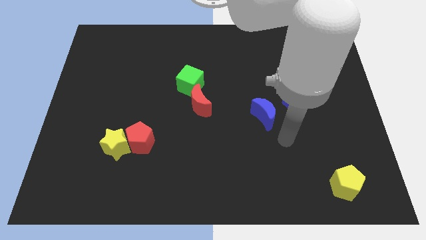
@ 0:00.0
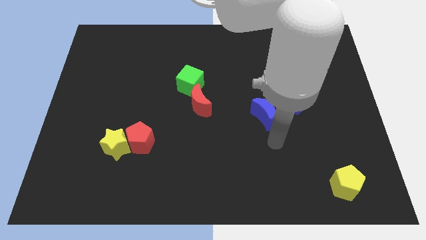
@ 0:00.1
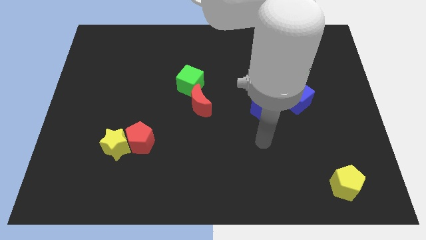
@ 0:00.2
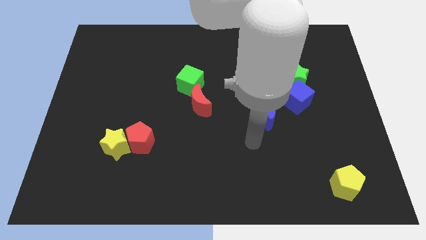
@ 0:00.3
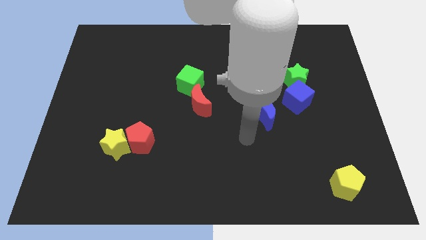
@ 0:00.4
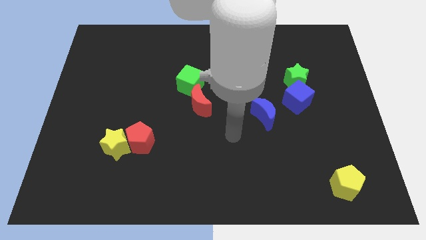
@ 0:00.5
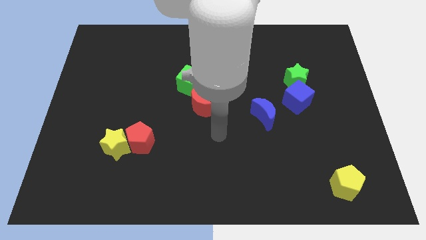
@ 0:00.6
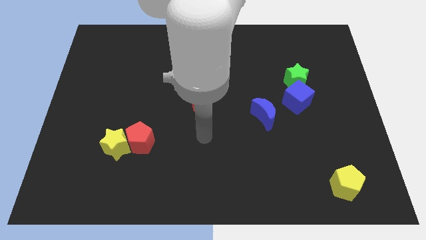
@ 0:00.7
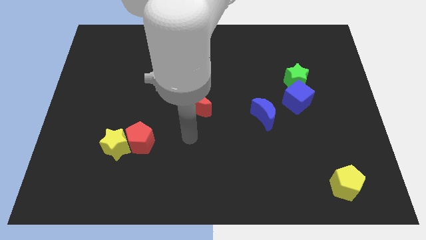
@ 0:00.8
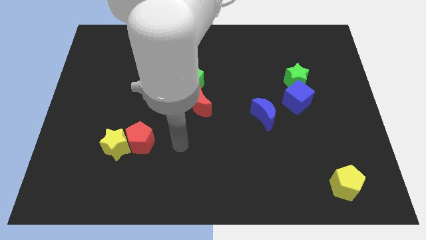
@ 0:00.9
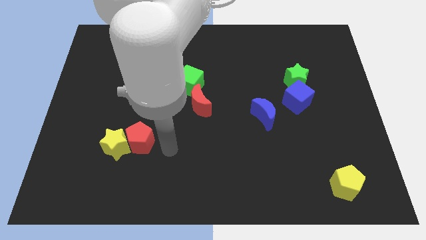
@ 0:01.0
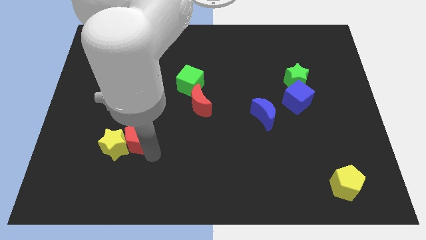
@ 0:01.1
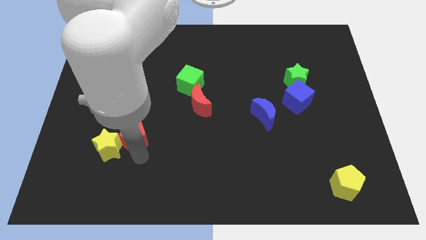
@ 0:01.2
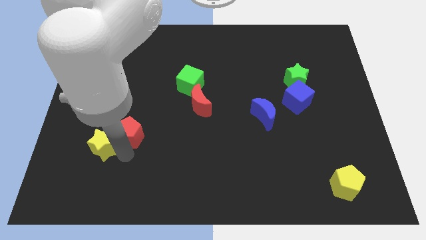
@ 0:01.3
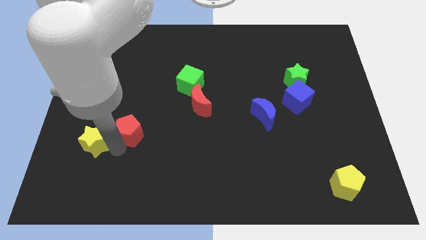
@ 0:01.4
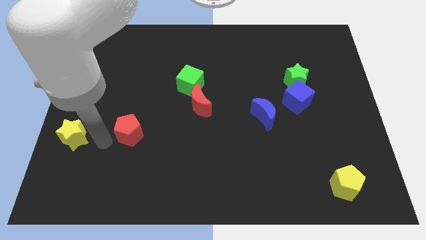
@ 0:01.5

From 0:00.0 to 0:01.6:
move the red pentagon away from the yellow star

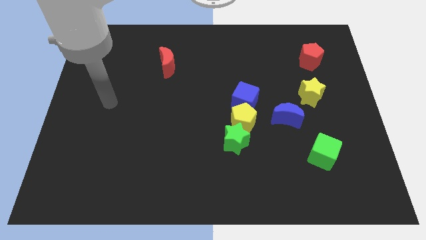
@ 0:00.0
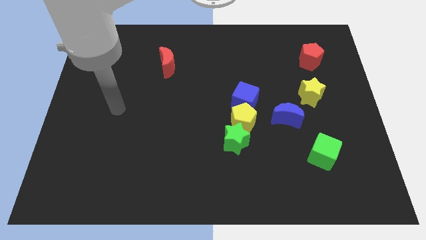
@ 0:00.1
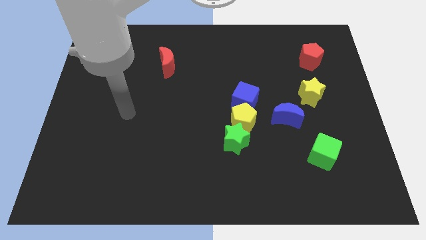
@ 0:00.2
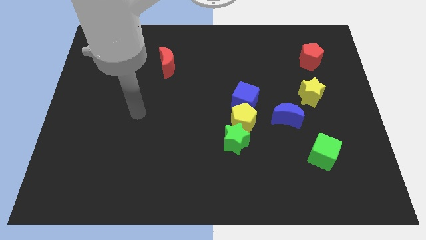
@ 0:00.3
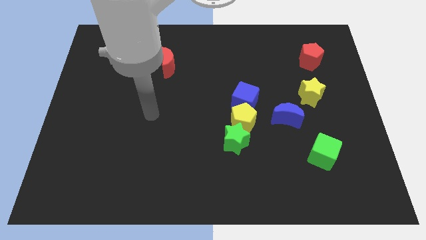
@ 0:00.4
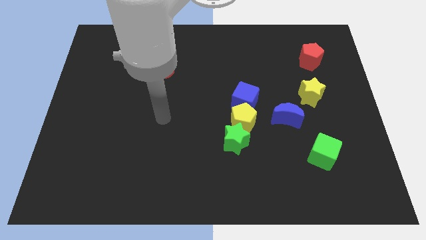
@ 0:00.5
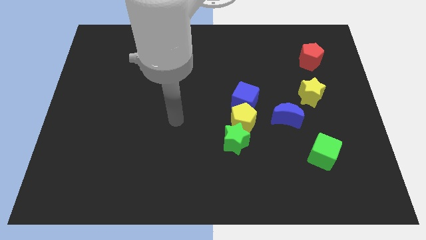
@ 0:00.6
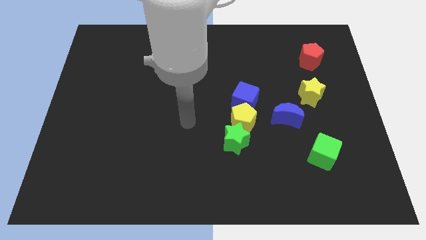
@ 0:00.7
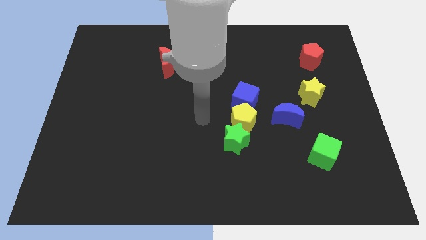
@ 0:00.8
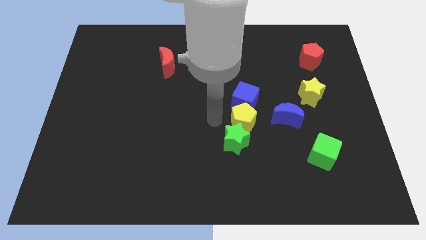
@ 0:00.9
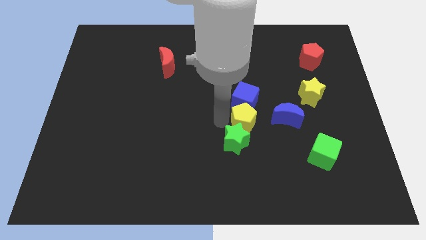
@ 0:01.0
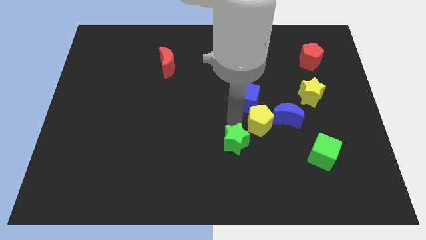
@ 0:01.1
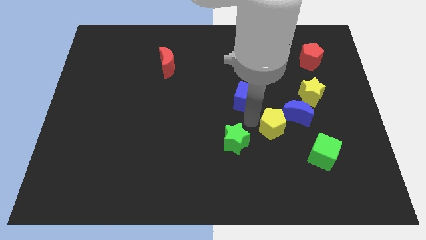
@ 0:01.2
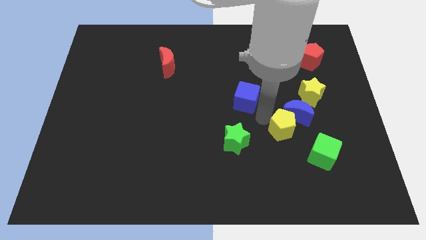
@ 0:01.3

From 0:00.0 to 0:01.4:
separate the blue cube from the yellow pentagon

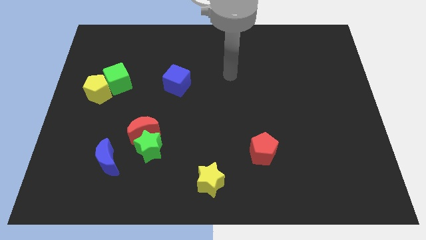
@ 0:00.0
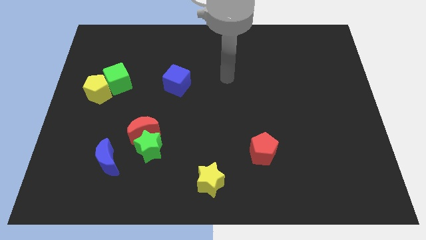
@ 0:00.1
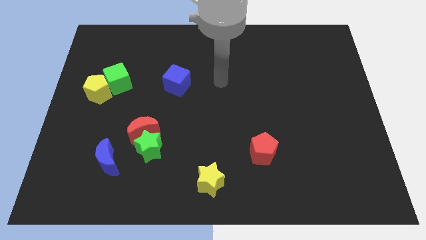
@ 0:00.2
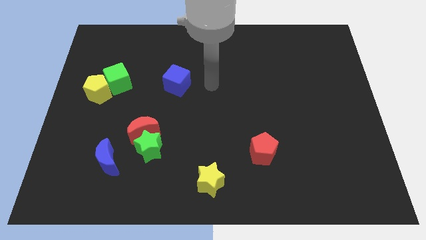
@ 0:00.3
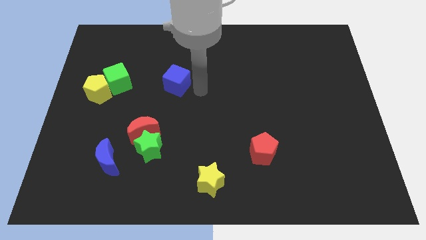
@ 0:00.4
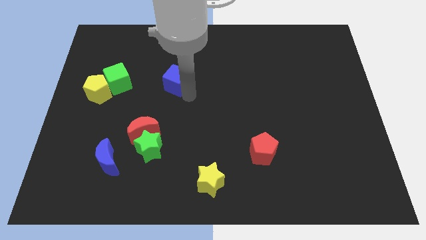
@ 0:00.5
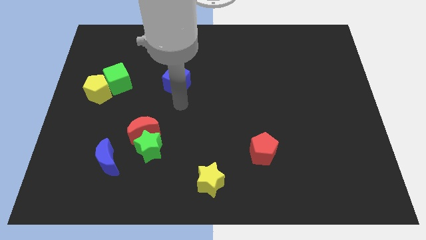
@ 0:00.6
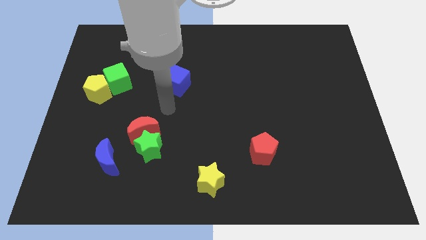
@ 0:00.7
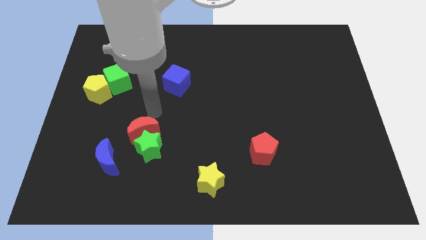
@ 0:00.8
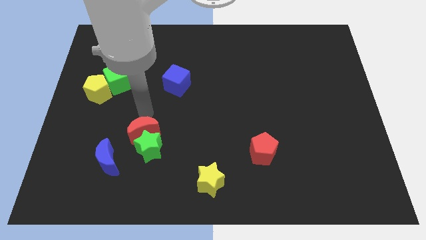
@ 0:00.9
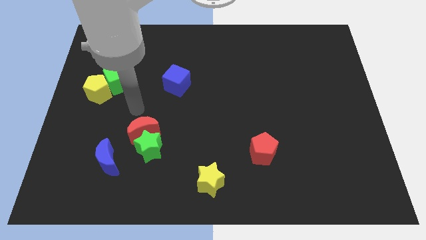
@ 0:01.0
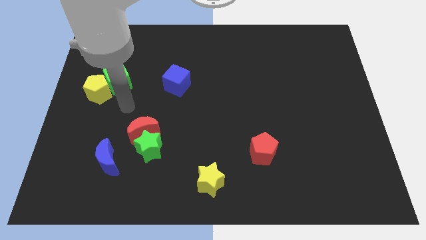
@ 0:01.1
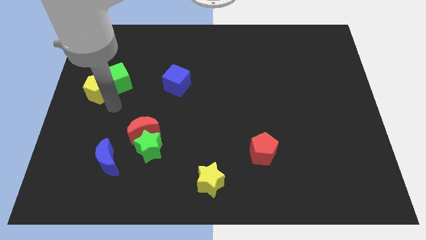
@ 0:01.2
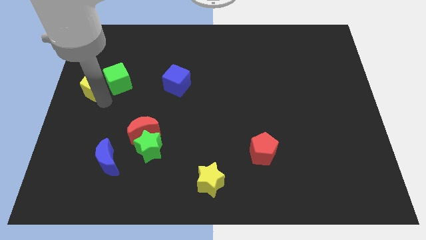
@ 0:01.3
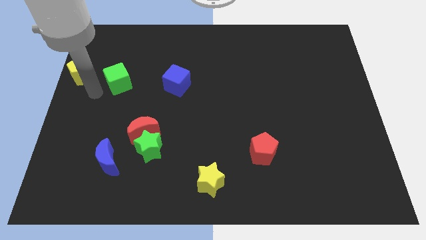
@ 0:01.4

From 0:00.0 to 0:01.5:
pull the green cube apart from the yellow pentagon

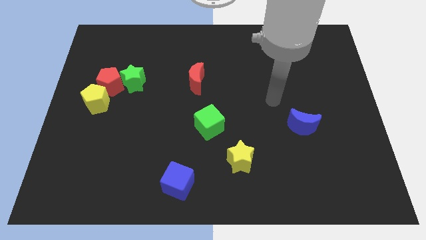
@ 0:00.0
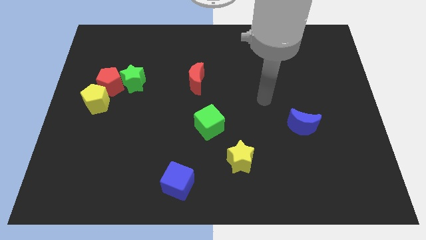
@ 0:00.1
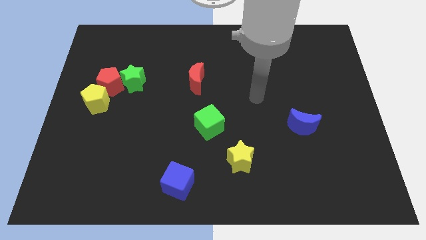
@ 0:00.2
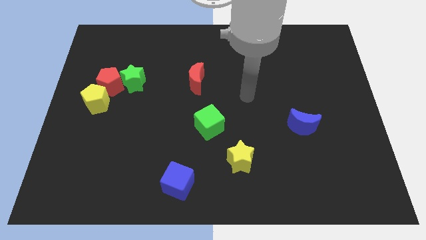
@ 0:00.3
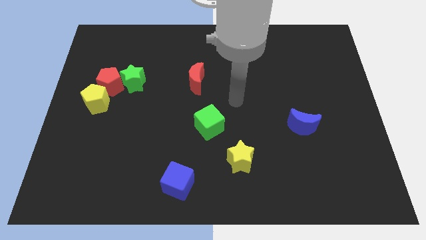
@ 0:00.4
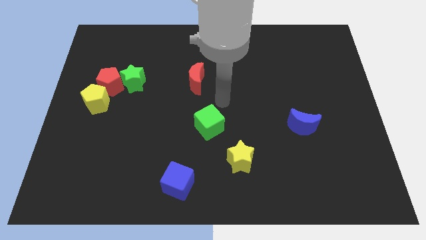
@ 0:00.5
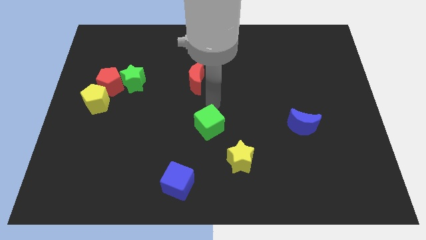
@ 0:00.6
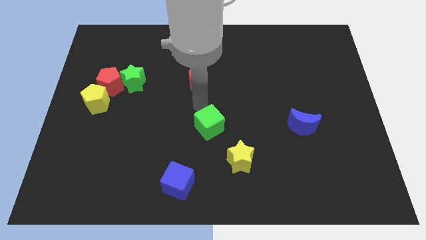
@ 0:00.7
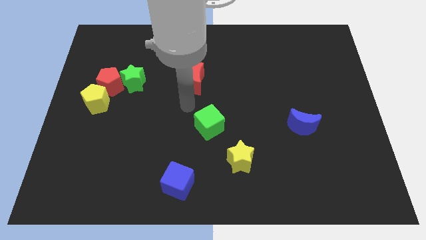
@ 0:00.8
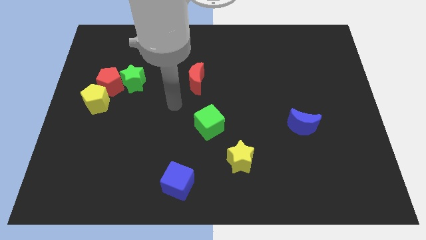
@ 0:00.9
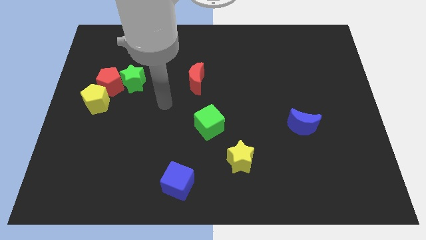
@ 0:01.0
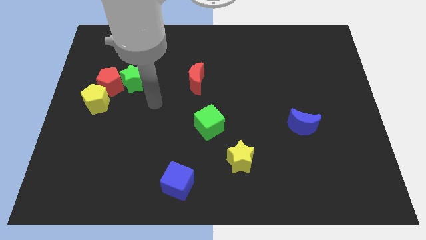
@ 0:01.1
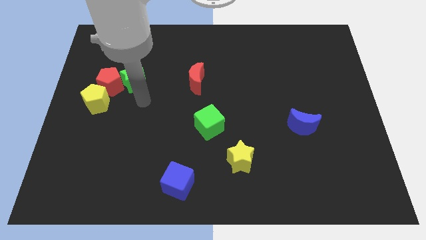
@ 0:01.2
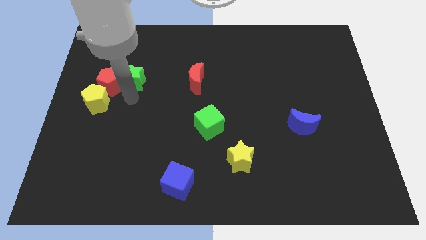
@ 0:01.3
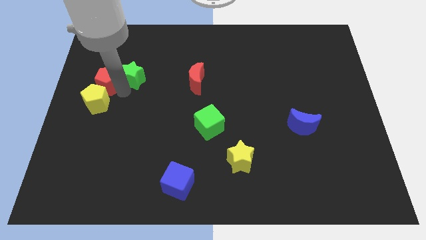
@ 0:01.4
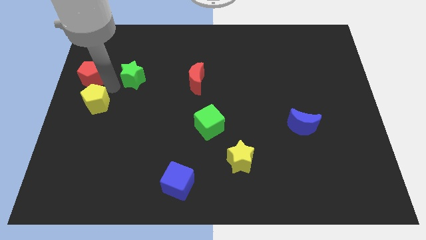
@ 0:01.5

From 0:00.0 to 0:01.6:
separate the green star from the red pentagon

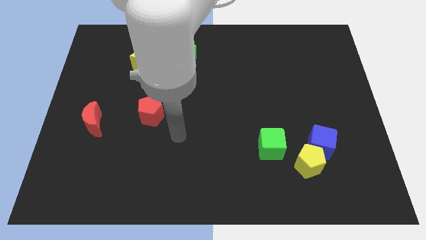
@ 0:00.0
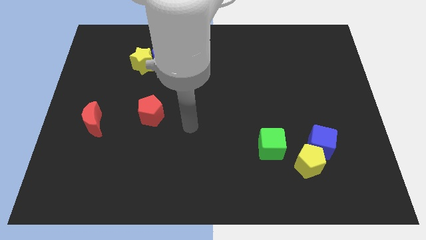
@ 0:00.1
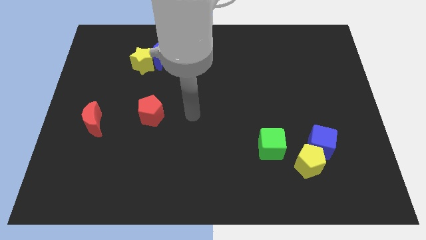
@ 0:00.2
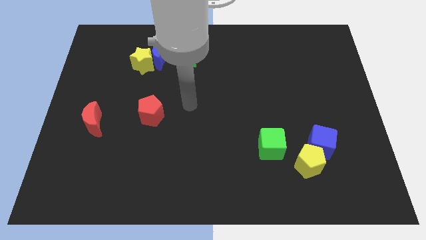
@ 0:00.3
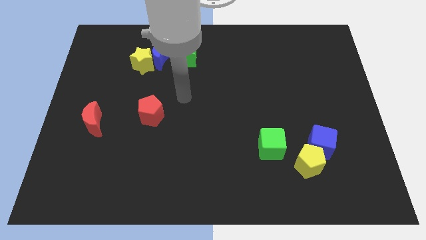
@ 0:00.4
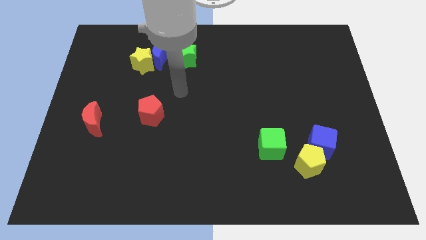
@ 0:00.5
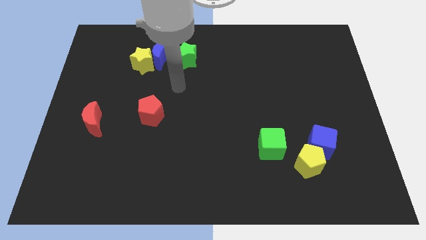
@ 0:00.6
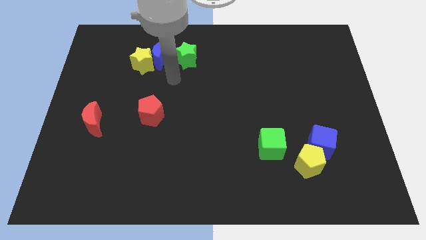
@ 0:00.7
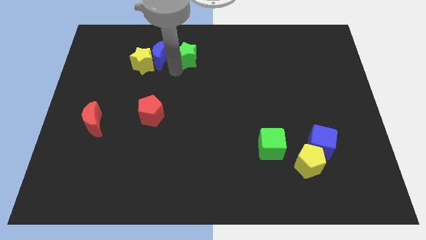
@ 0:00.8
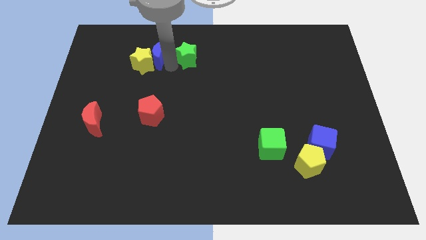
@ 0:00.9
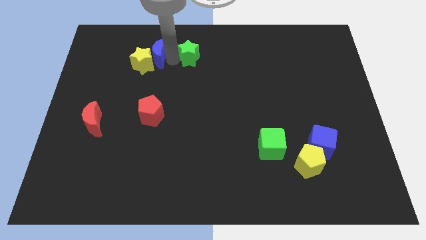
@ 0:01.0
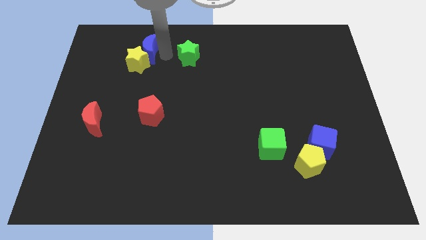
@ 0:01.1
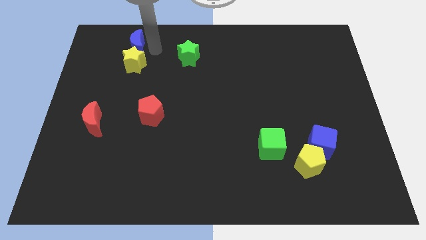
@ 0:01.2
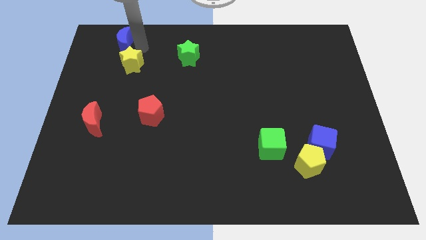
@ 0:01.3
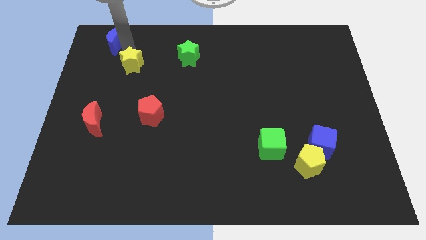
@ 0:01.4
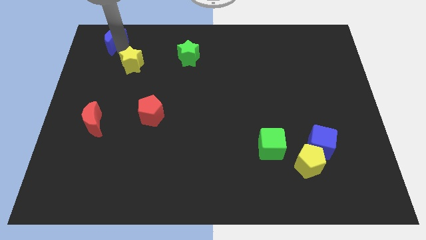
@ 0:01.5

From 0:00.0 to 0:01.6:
pull the yellow star apart from the blue moon

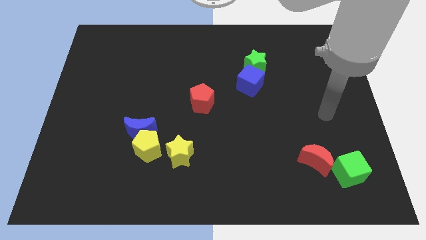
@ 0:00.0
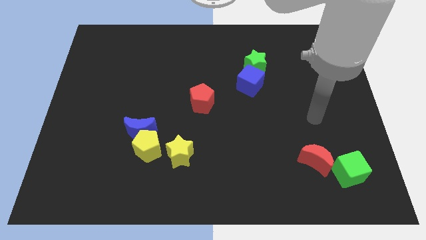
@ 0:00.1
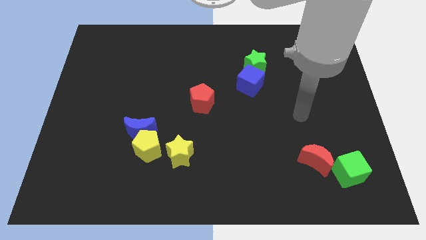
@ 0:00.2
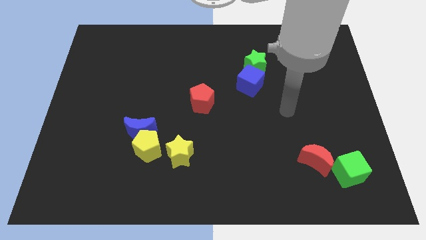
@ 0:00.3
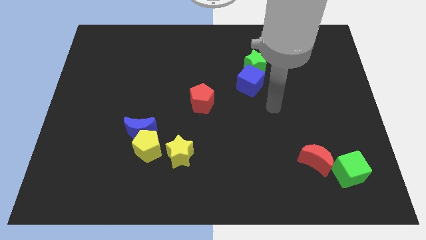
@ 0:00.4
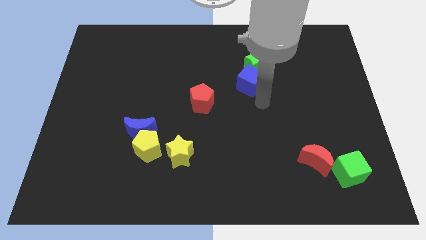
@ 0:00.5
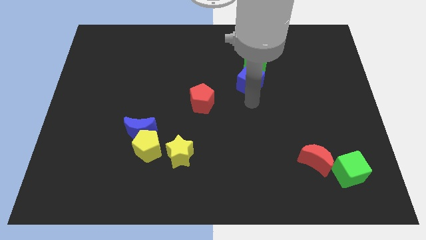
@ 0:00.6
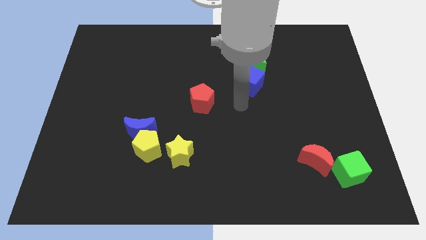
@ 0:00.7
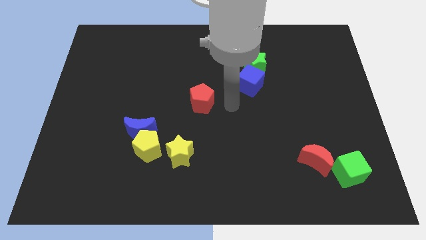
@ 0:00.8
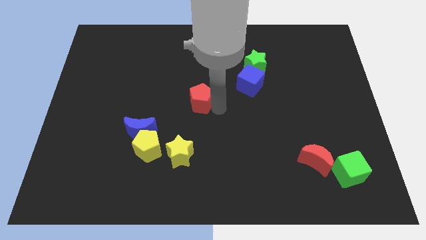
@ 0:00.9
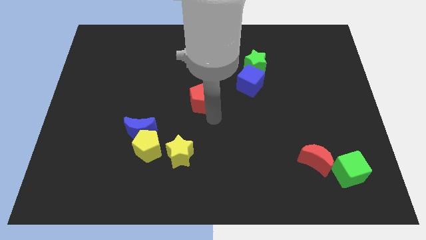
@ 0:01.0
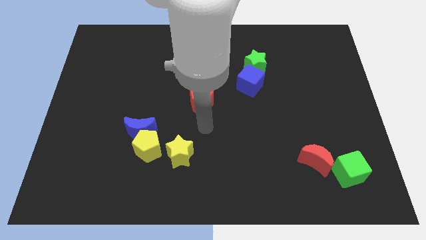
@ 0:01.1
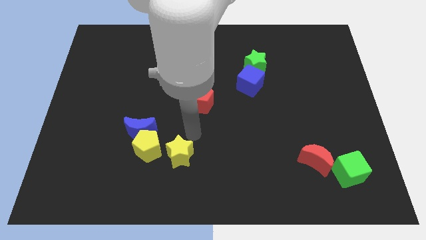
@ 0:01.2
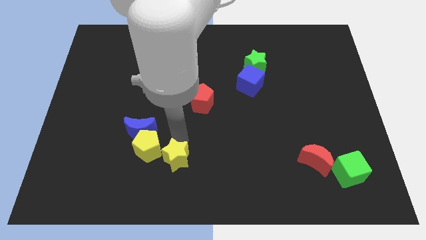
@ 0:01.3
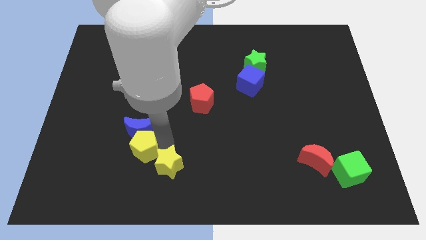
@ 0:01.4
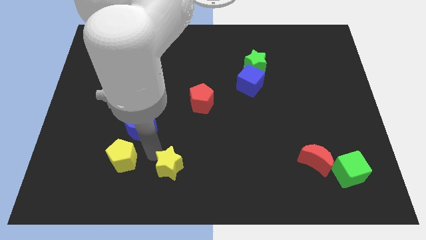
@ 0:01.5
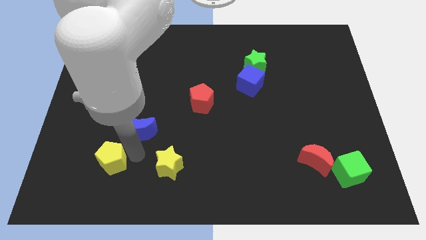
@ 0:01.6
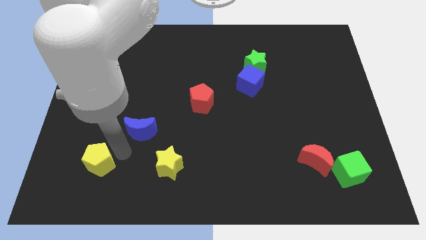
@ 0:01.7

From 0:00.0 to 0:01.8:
pull the blue moon apart from the yellow pentagon
